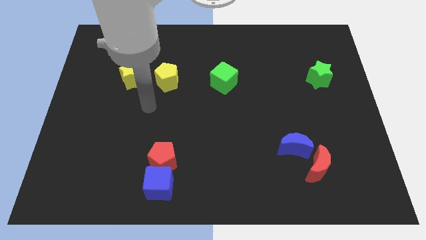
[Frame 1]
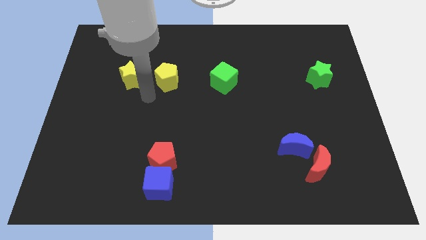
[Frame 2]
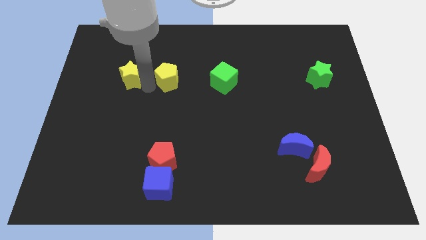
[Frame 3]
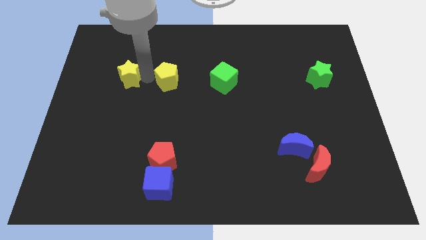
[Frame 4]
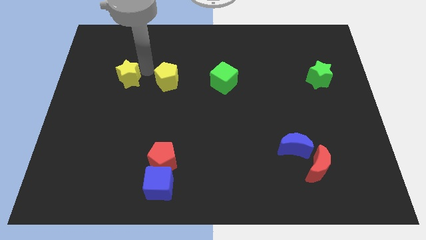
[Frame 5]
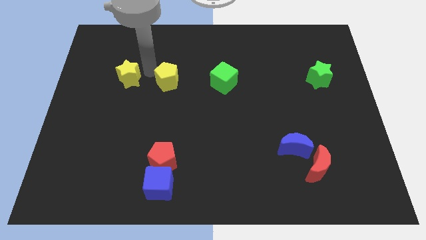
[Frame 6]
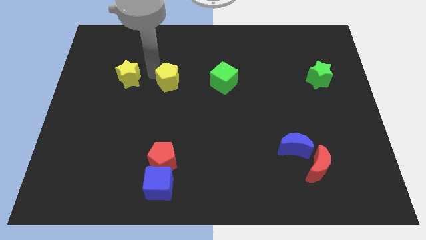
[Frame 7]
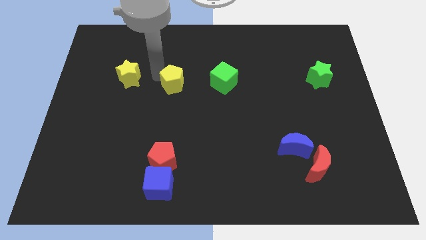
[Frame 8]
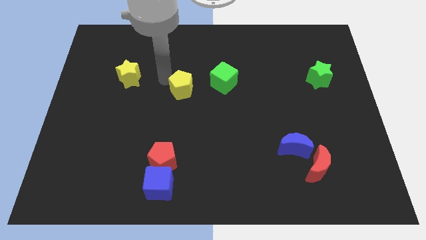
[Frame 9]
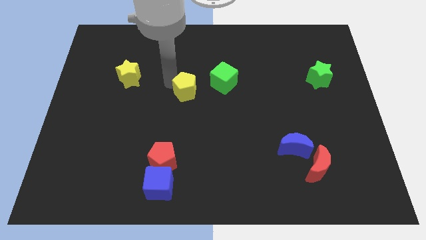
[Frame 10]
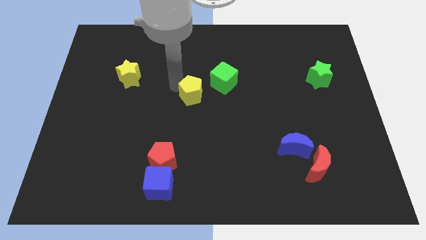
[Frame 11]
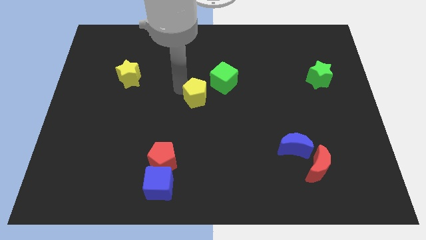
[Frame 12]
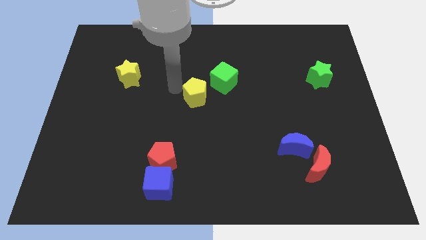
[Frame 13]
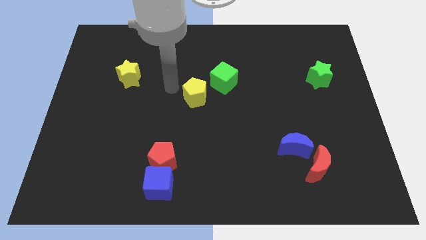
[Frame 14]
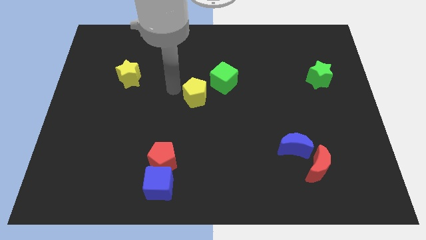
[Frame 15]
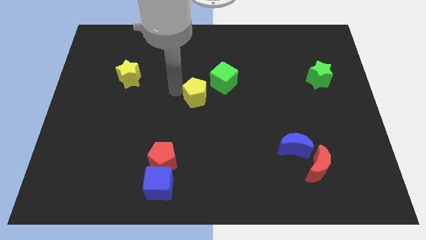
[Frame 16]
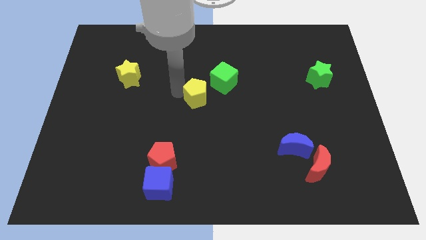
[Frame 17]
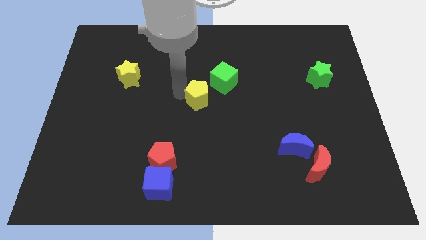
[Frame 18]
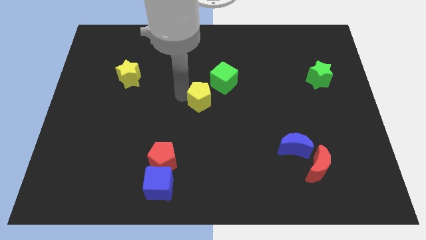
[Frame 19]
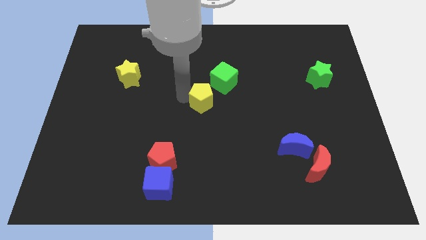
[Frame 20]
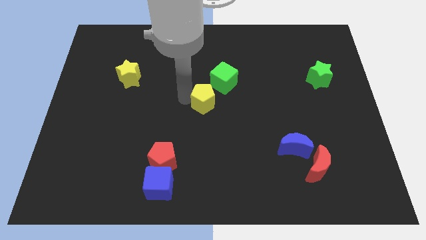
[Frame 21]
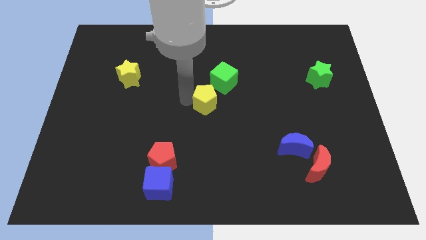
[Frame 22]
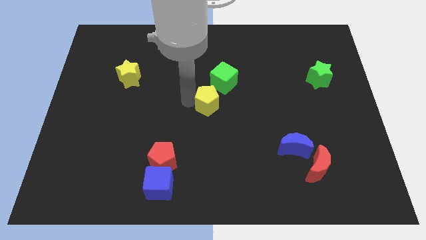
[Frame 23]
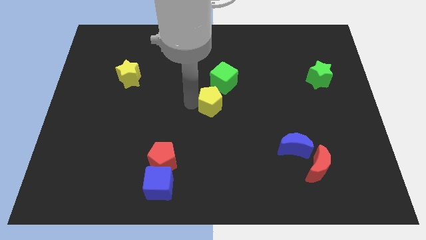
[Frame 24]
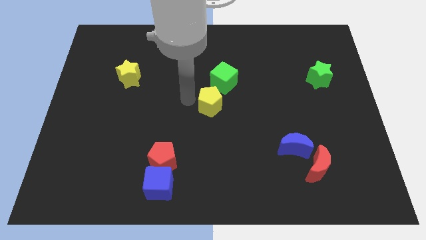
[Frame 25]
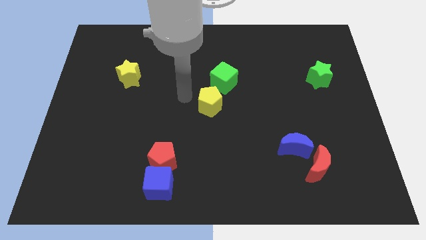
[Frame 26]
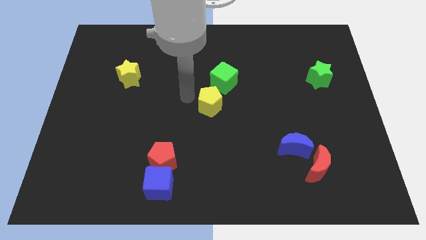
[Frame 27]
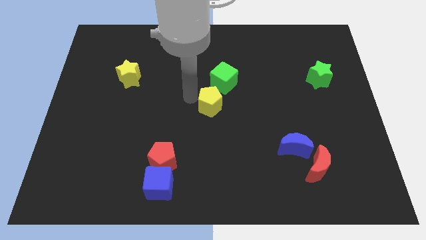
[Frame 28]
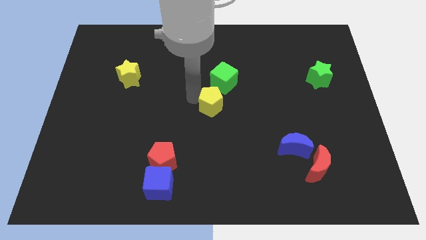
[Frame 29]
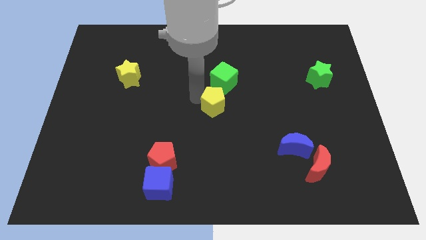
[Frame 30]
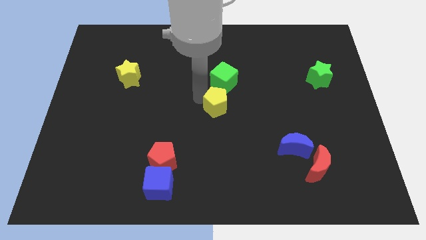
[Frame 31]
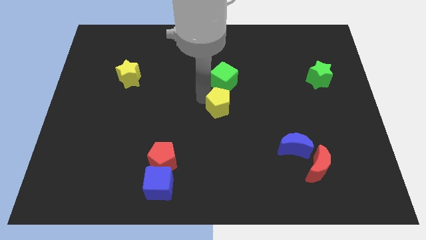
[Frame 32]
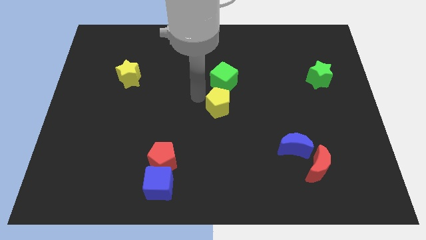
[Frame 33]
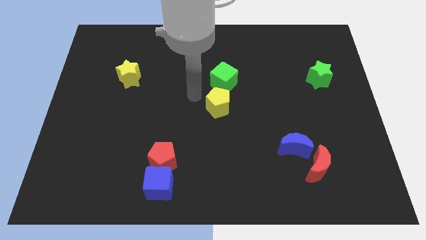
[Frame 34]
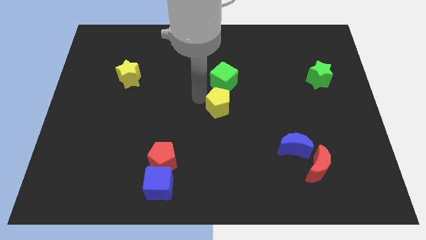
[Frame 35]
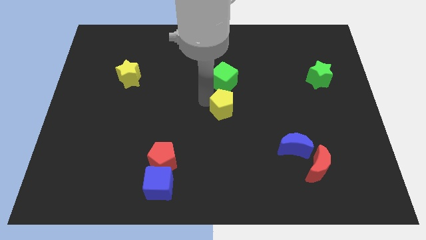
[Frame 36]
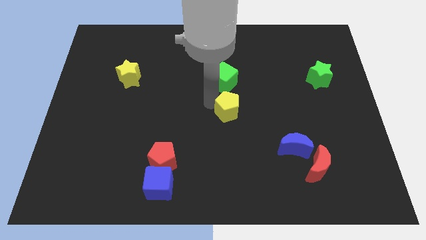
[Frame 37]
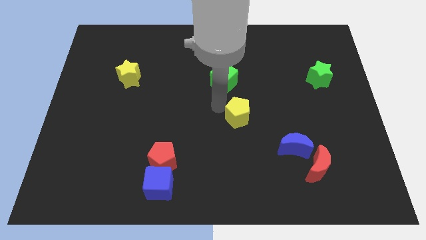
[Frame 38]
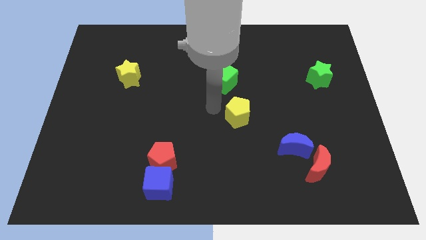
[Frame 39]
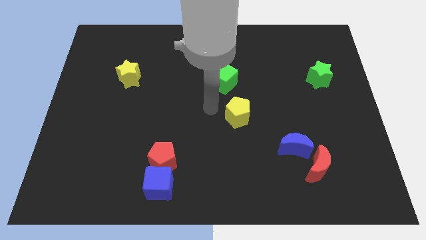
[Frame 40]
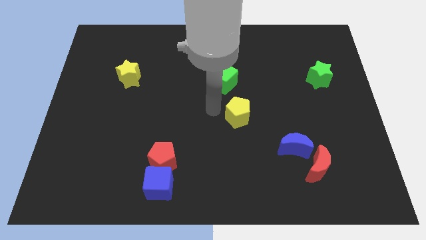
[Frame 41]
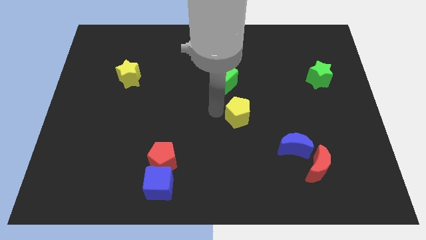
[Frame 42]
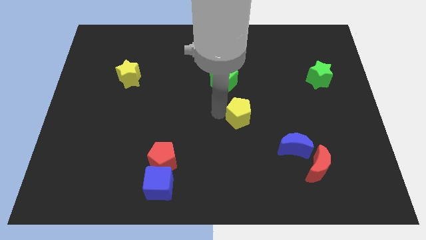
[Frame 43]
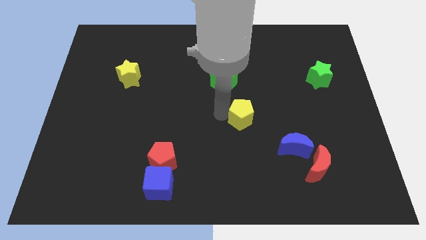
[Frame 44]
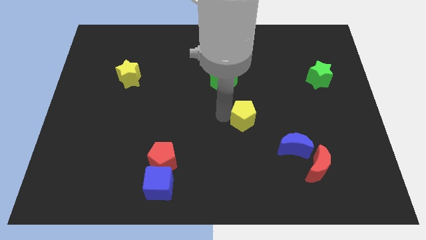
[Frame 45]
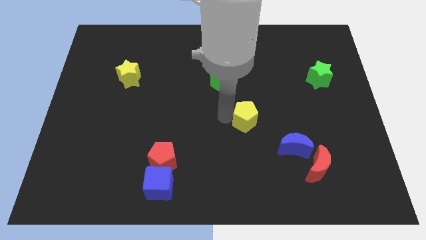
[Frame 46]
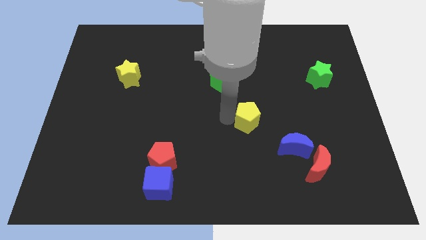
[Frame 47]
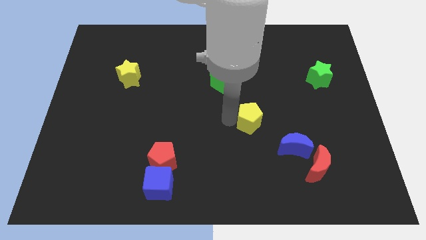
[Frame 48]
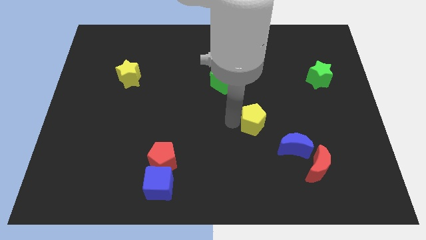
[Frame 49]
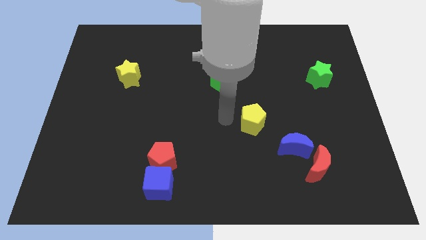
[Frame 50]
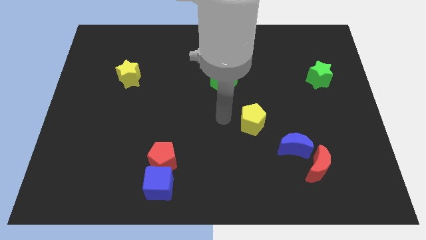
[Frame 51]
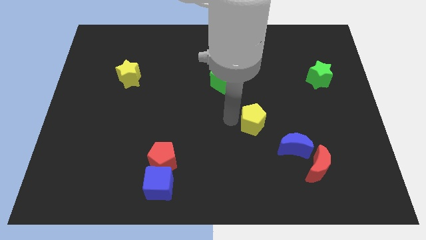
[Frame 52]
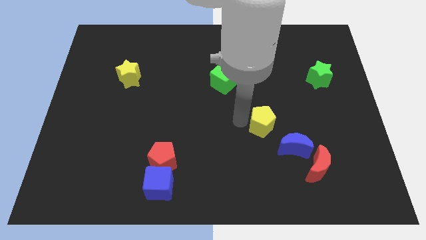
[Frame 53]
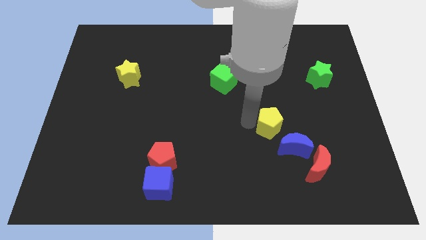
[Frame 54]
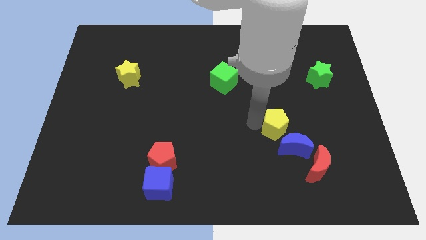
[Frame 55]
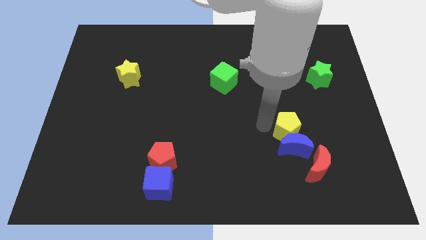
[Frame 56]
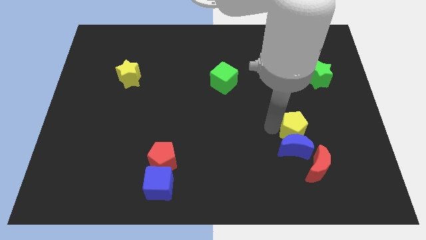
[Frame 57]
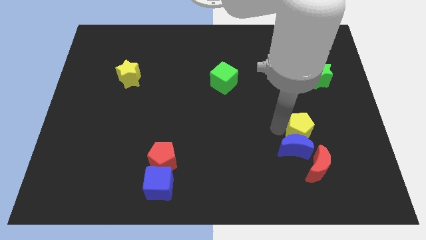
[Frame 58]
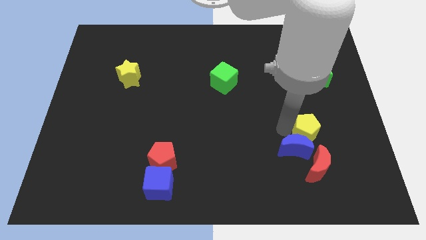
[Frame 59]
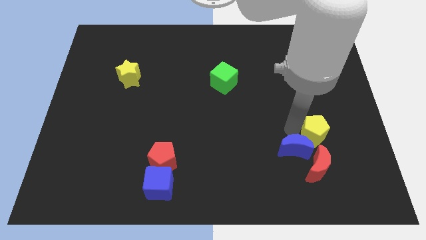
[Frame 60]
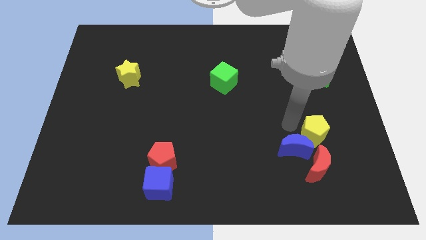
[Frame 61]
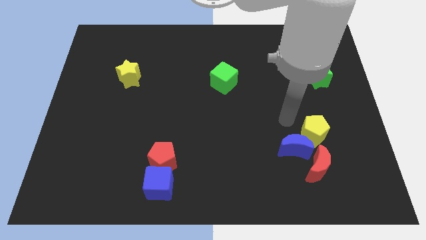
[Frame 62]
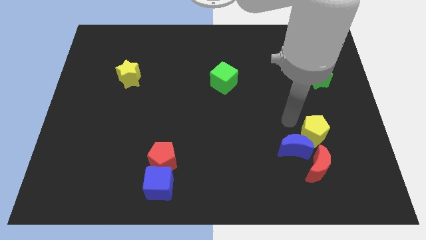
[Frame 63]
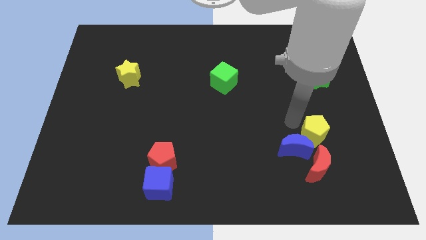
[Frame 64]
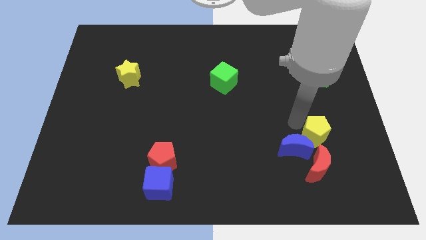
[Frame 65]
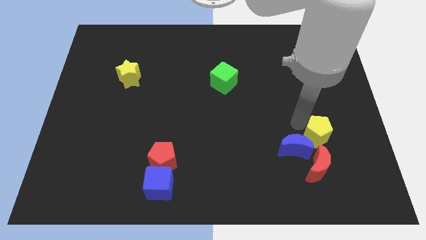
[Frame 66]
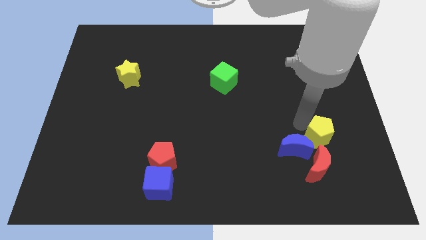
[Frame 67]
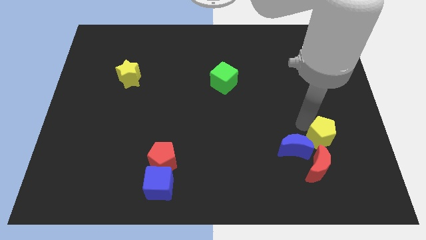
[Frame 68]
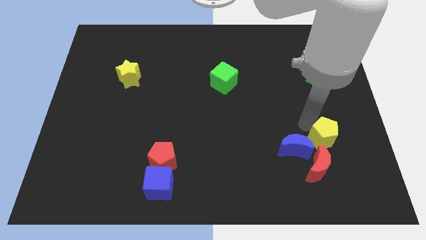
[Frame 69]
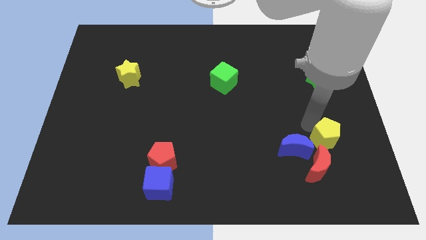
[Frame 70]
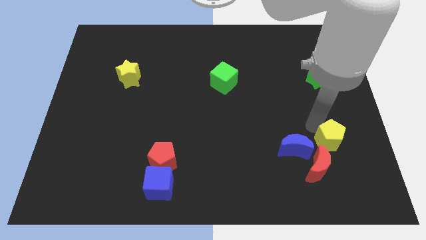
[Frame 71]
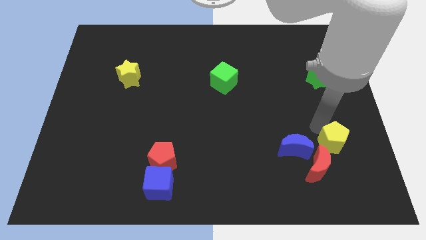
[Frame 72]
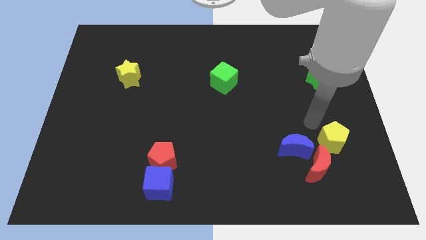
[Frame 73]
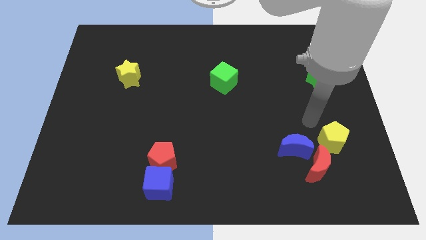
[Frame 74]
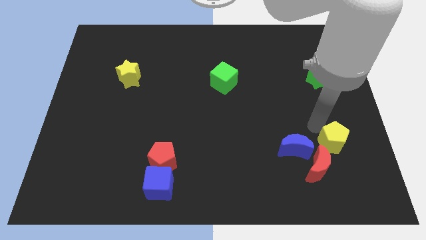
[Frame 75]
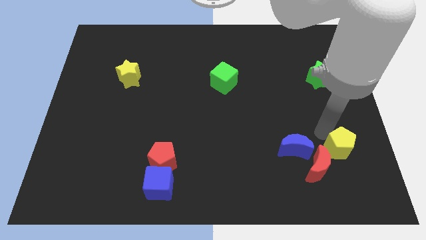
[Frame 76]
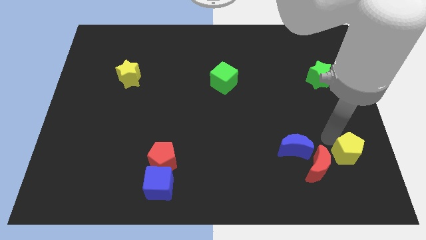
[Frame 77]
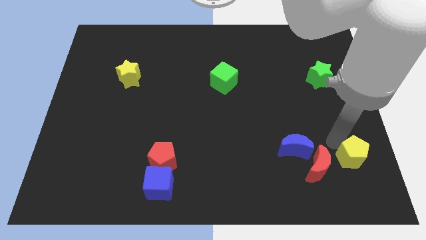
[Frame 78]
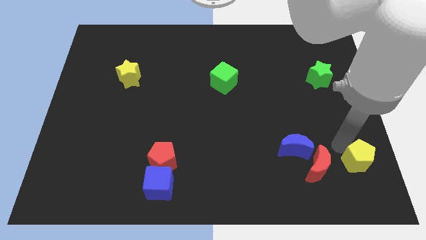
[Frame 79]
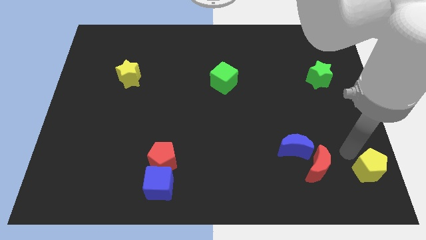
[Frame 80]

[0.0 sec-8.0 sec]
slide the yellow pentagon to the lower right corner
